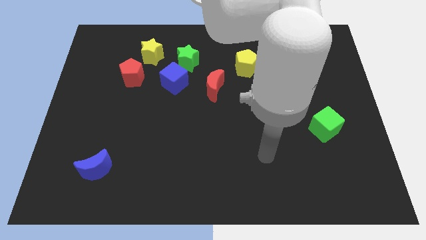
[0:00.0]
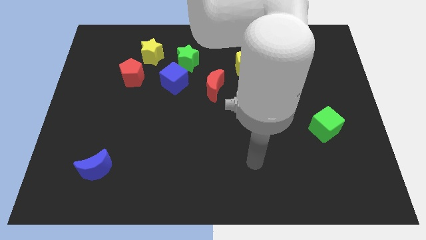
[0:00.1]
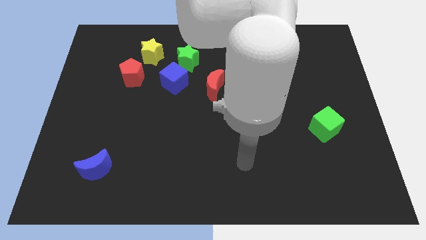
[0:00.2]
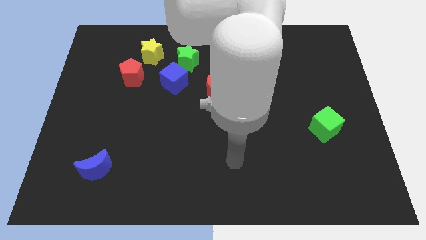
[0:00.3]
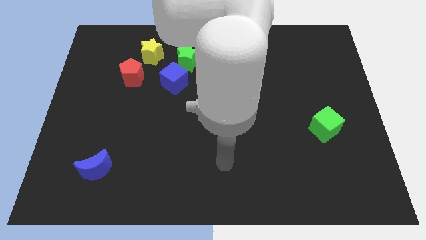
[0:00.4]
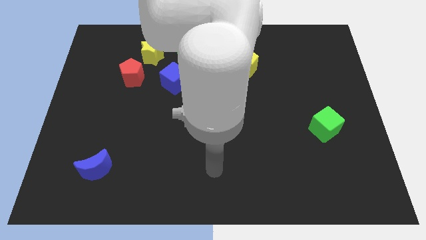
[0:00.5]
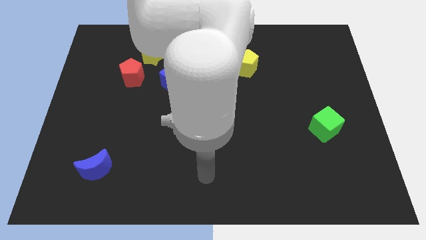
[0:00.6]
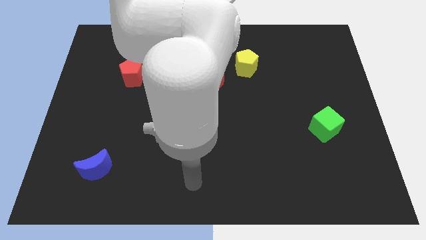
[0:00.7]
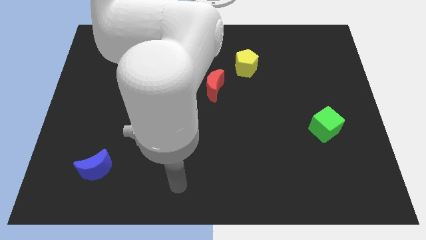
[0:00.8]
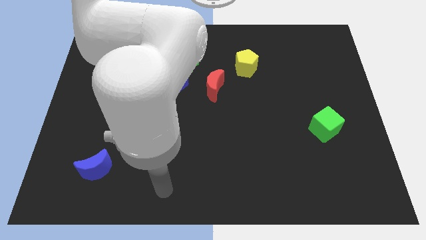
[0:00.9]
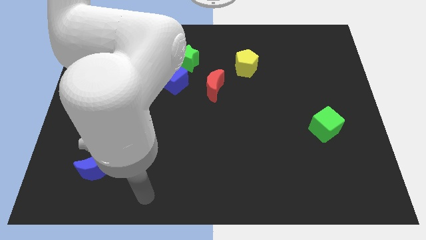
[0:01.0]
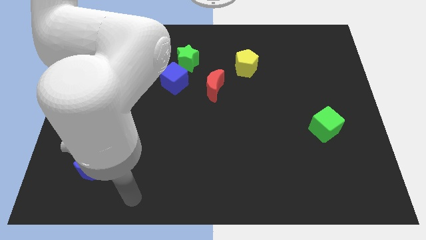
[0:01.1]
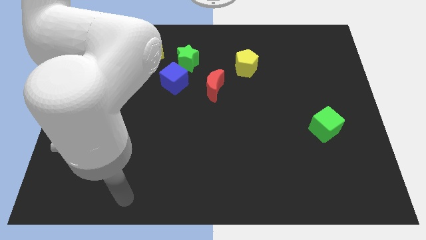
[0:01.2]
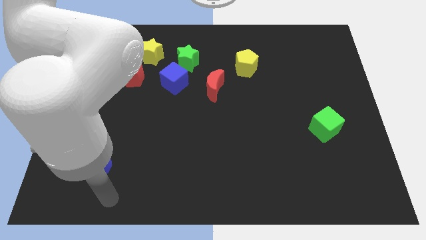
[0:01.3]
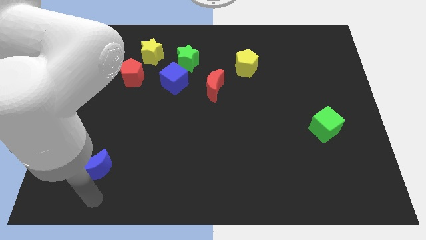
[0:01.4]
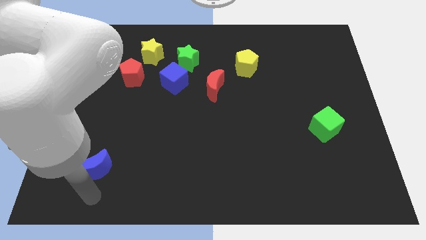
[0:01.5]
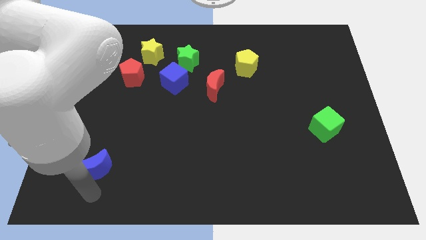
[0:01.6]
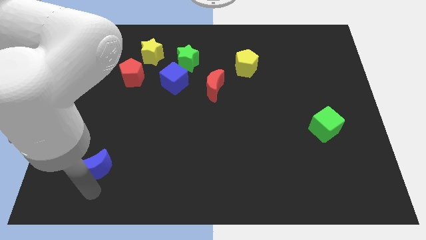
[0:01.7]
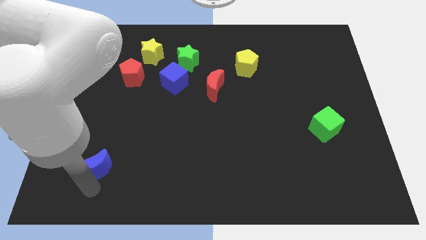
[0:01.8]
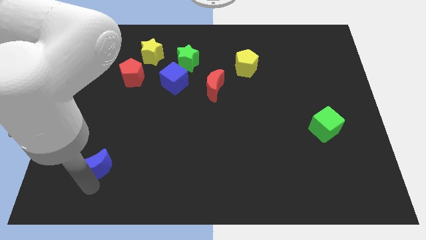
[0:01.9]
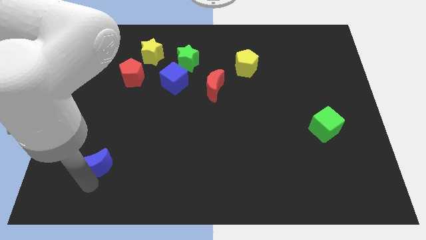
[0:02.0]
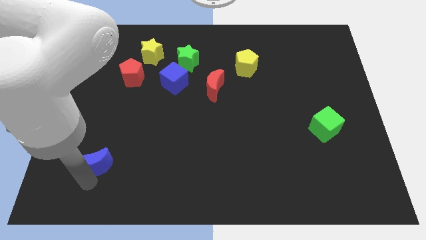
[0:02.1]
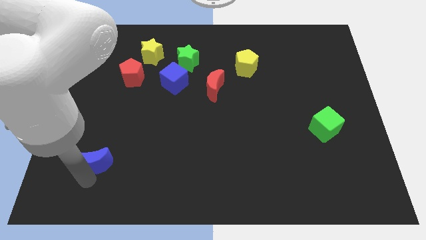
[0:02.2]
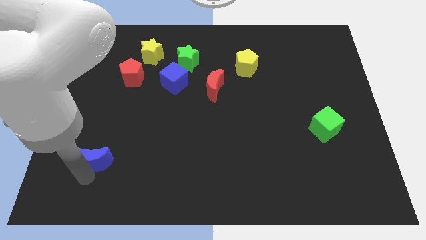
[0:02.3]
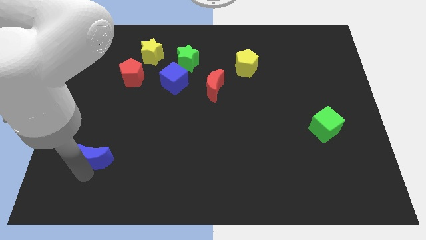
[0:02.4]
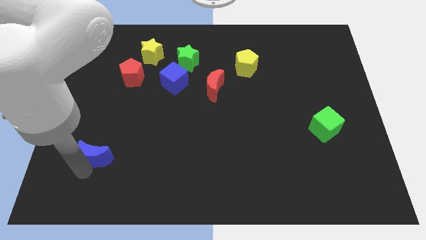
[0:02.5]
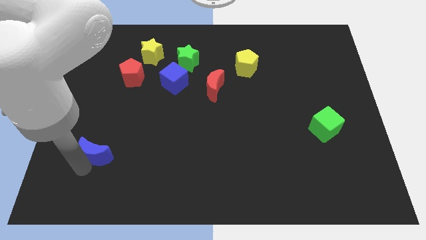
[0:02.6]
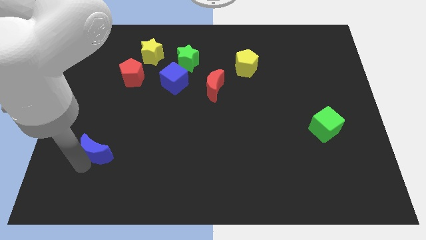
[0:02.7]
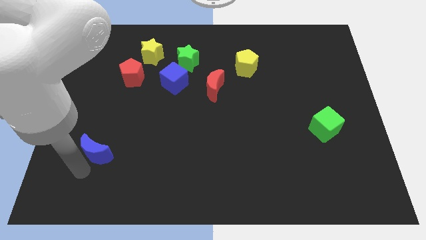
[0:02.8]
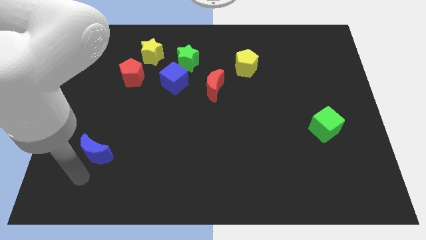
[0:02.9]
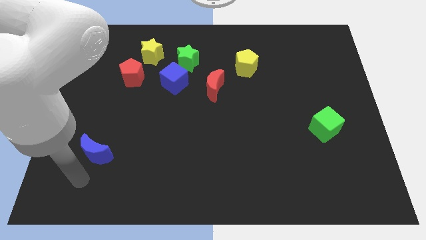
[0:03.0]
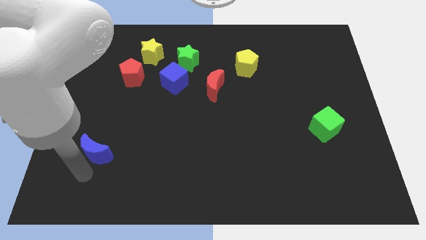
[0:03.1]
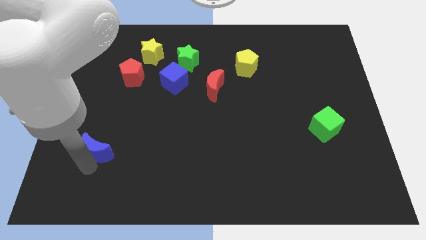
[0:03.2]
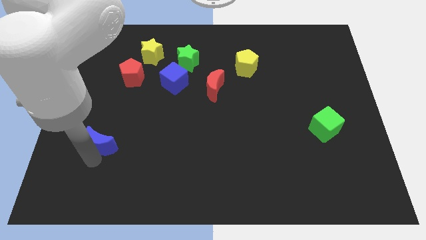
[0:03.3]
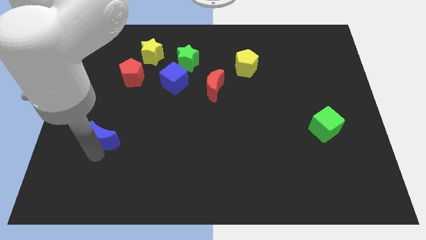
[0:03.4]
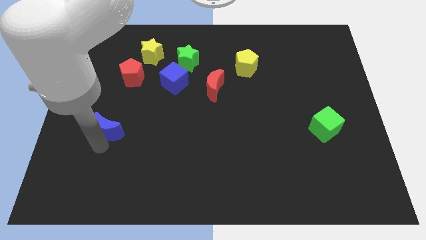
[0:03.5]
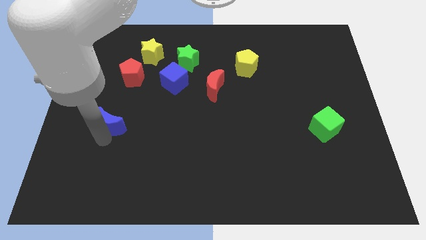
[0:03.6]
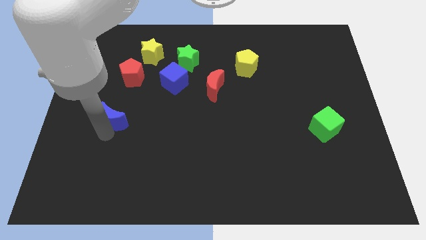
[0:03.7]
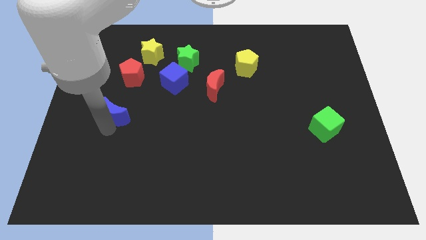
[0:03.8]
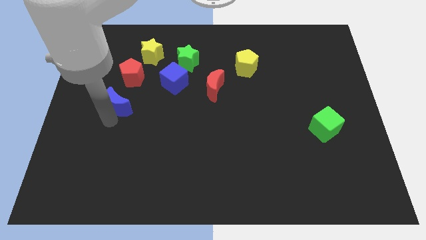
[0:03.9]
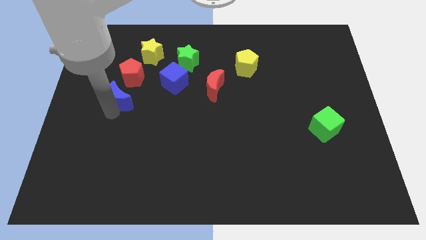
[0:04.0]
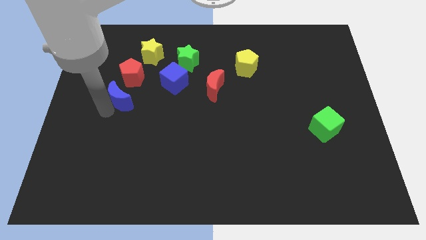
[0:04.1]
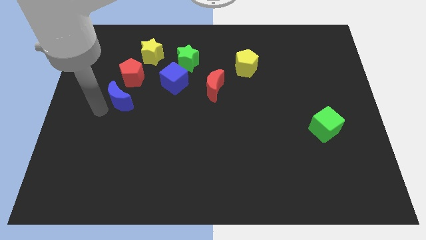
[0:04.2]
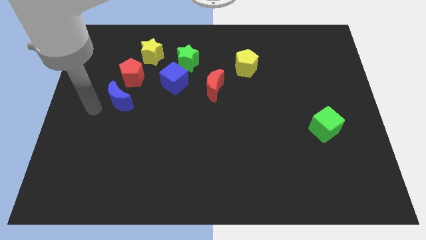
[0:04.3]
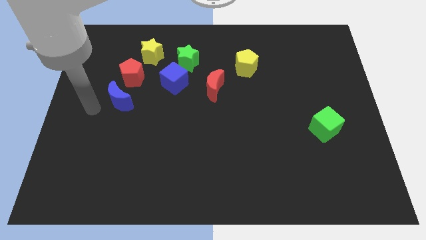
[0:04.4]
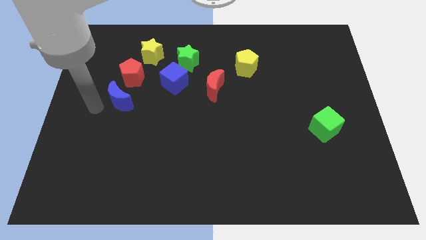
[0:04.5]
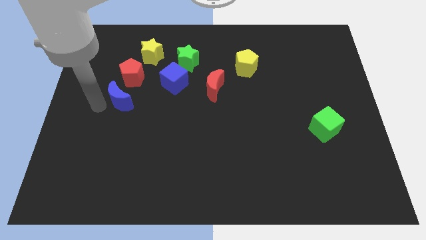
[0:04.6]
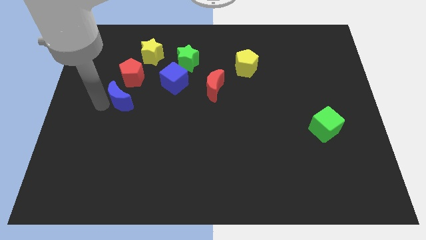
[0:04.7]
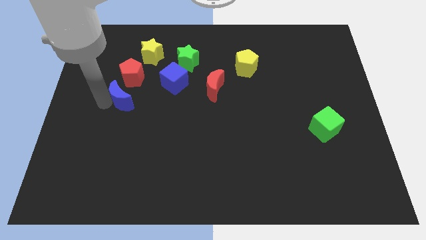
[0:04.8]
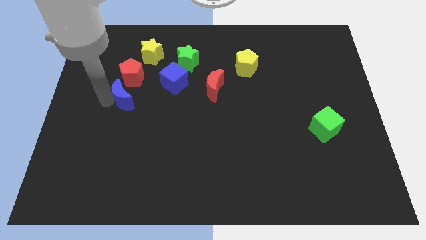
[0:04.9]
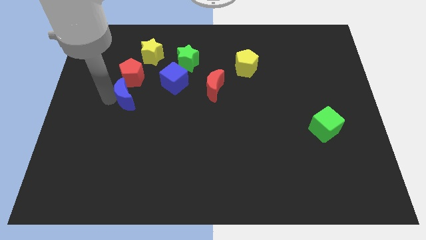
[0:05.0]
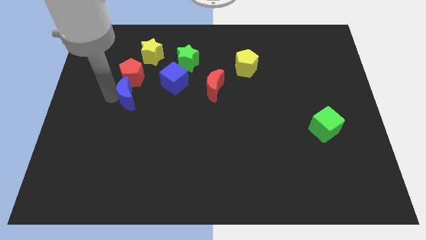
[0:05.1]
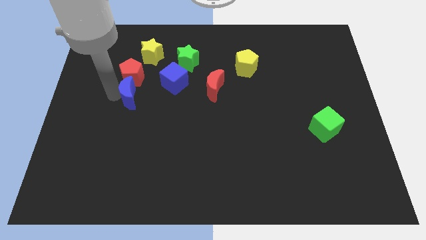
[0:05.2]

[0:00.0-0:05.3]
slide the blue moon diagonally down and to the right of the red pentagon
